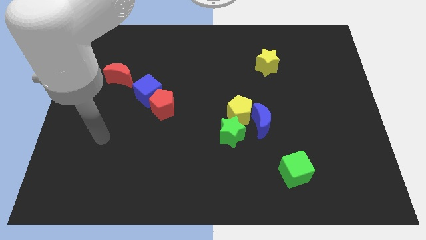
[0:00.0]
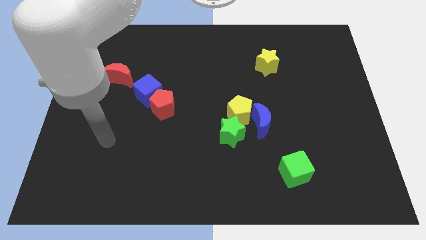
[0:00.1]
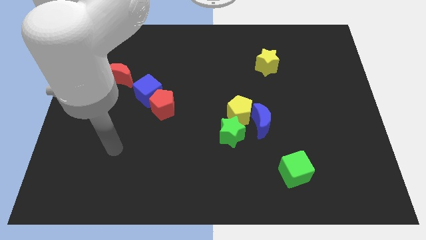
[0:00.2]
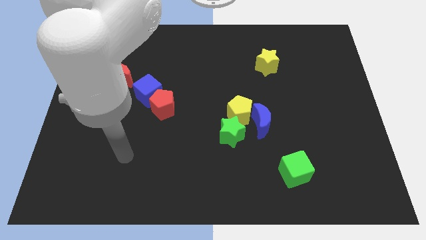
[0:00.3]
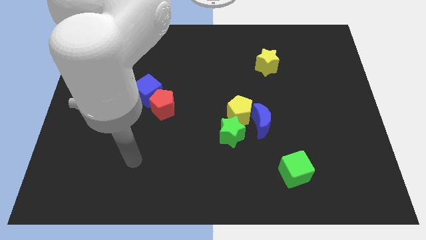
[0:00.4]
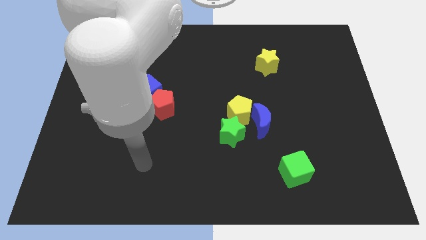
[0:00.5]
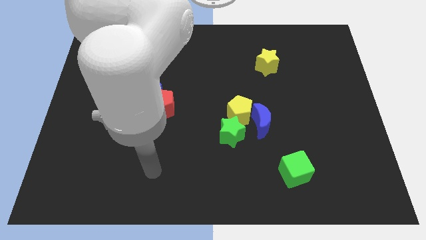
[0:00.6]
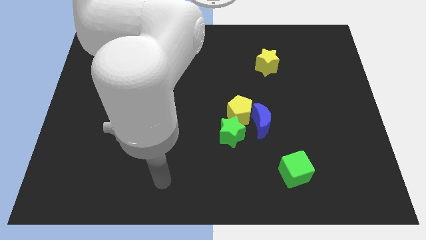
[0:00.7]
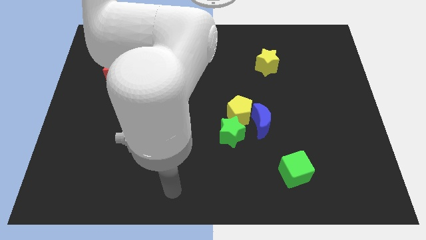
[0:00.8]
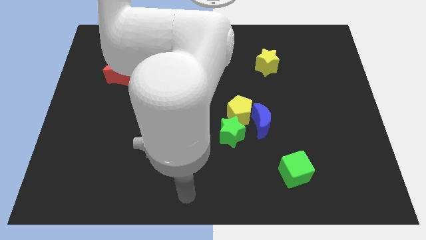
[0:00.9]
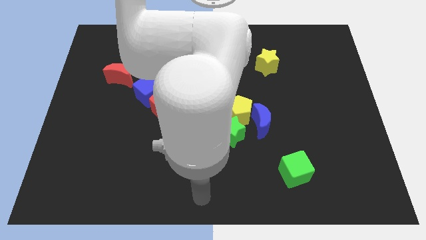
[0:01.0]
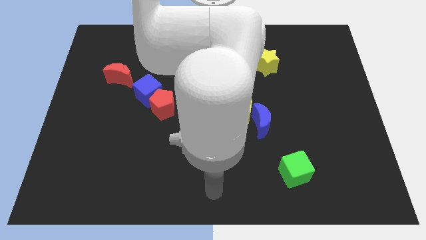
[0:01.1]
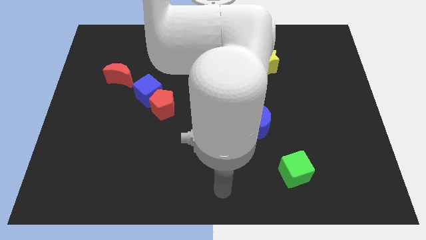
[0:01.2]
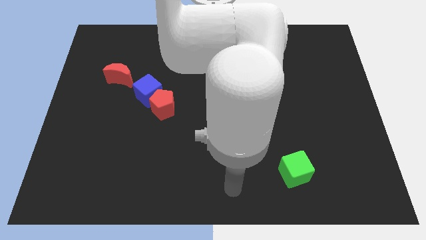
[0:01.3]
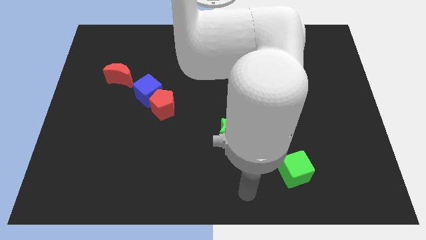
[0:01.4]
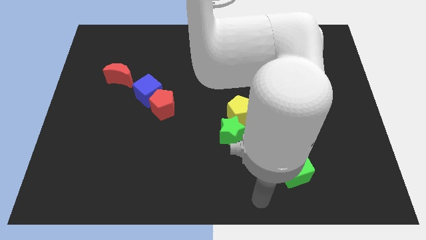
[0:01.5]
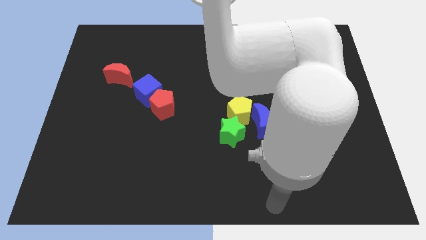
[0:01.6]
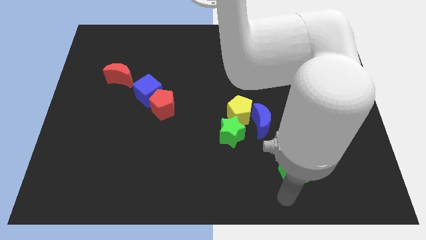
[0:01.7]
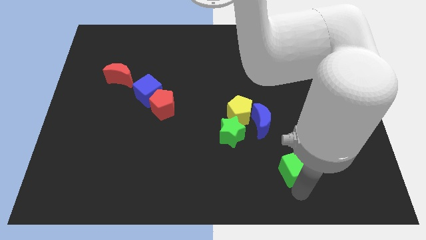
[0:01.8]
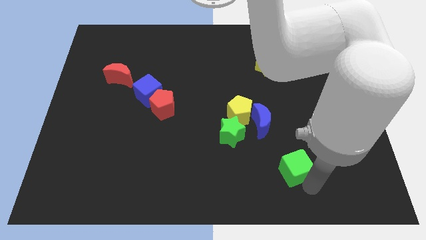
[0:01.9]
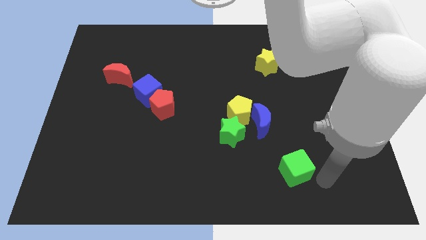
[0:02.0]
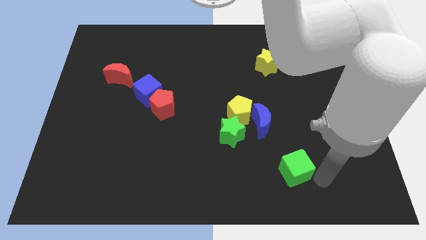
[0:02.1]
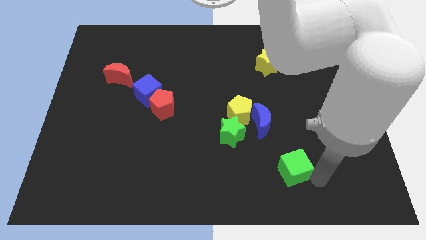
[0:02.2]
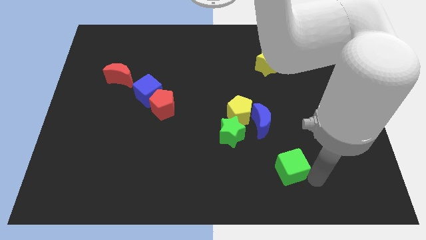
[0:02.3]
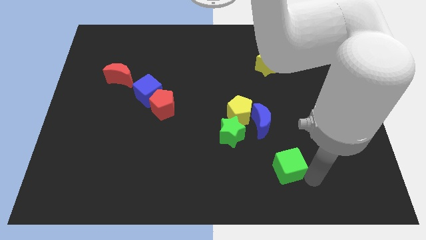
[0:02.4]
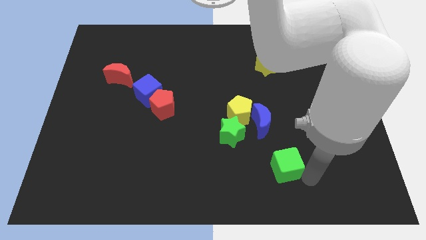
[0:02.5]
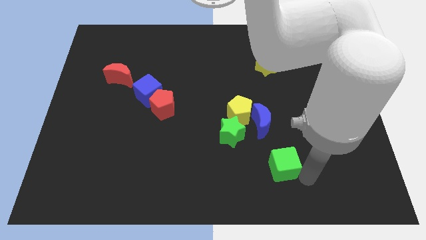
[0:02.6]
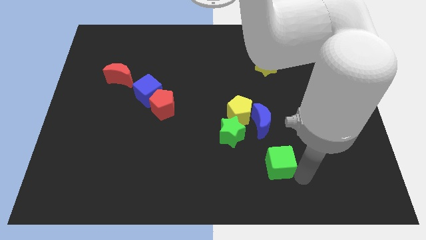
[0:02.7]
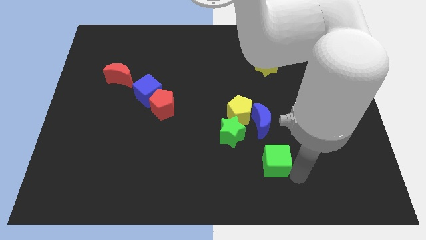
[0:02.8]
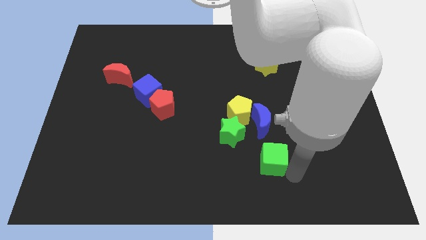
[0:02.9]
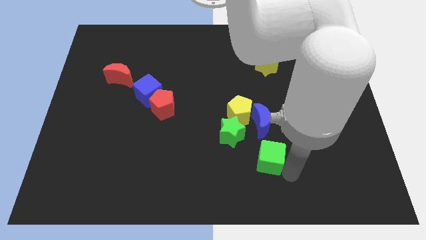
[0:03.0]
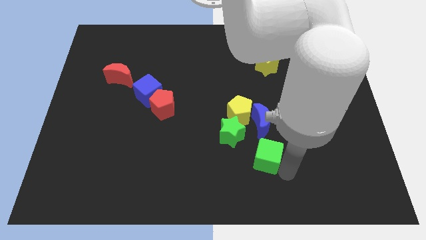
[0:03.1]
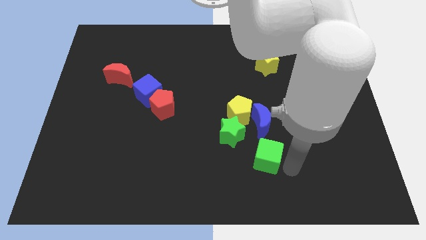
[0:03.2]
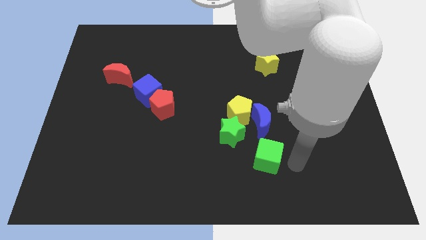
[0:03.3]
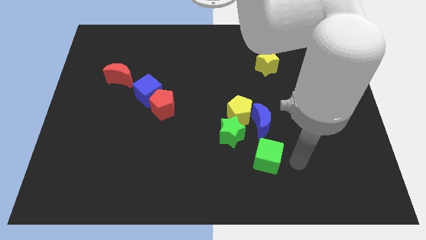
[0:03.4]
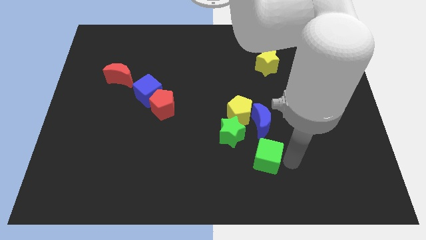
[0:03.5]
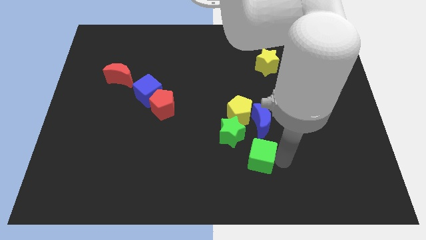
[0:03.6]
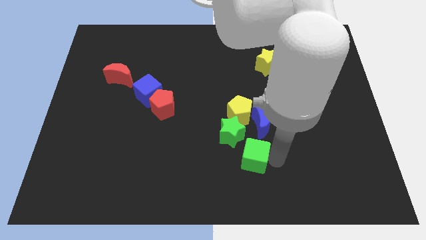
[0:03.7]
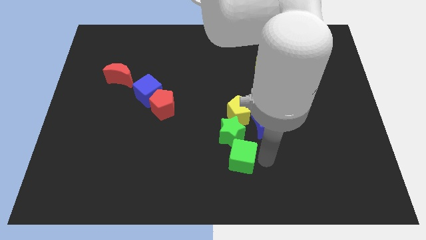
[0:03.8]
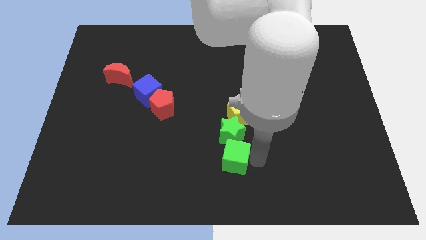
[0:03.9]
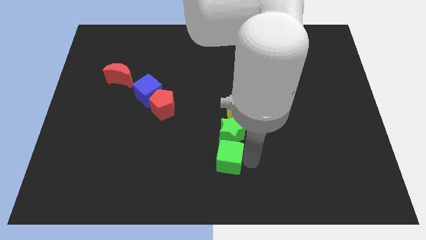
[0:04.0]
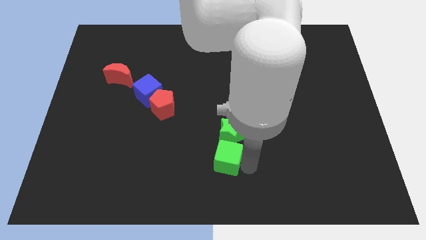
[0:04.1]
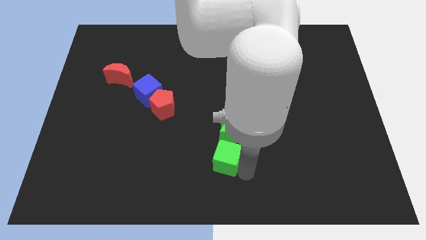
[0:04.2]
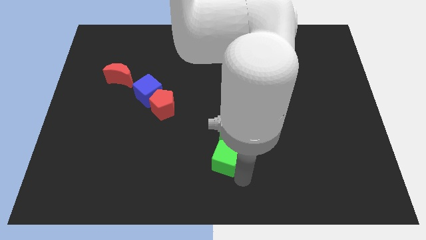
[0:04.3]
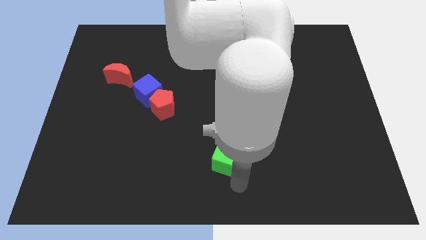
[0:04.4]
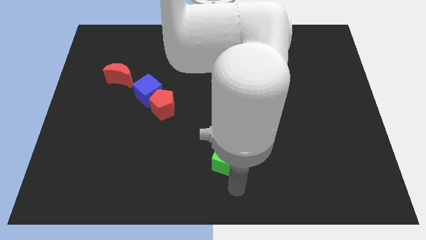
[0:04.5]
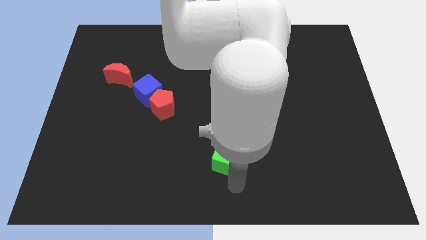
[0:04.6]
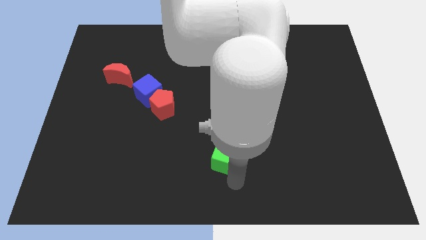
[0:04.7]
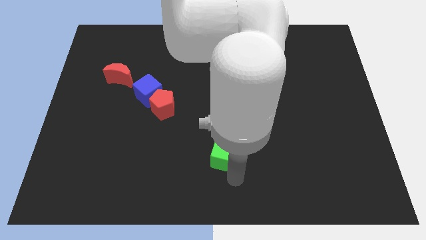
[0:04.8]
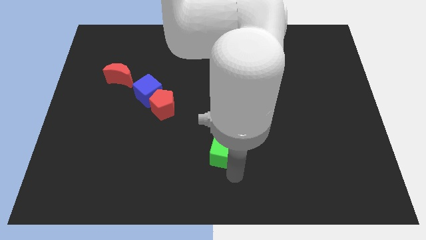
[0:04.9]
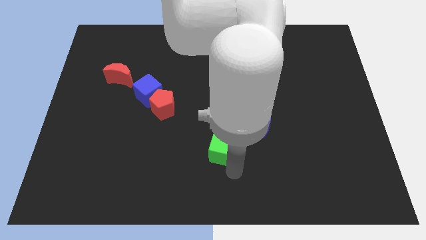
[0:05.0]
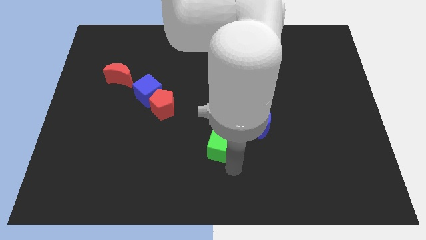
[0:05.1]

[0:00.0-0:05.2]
move the green cube to the bottom left side of the yellow pentagon

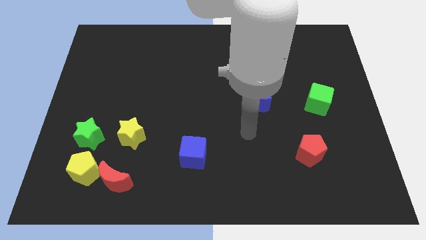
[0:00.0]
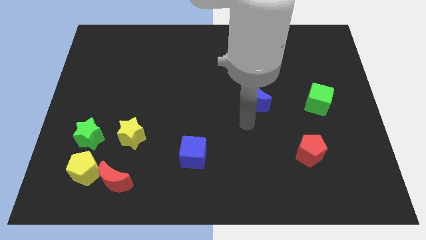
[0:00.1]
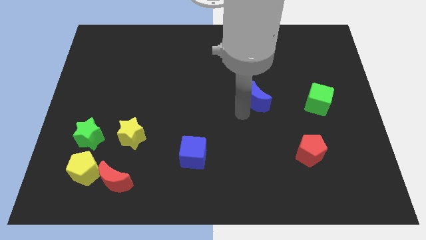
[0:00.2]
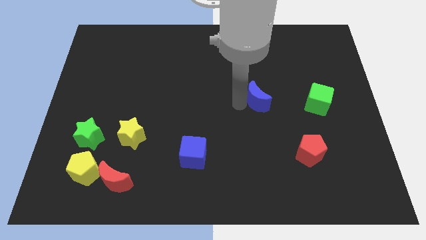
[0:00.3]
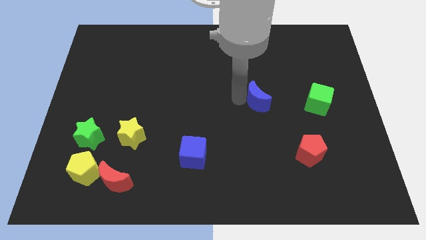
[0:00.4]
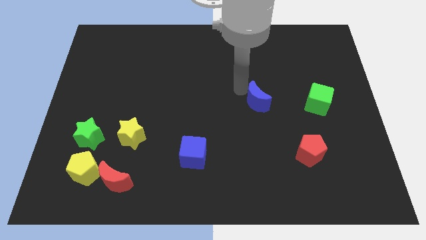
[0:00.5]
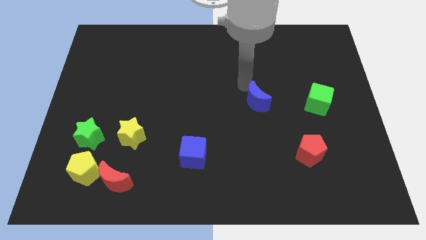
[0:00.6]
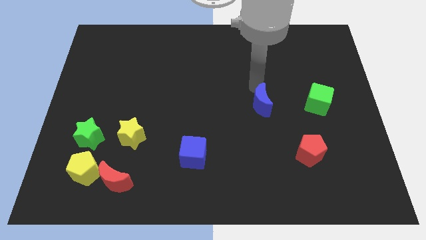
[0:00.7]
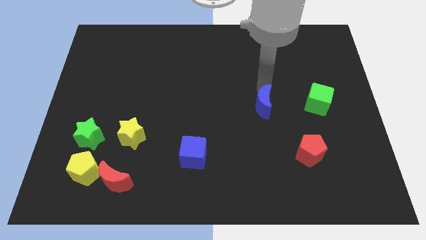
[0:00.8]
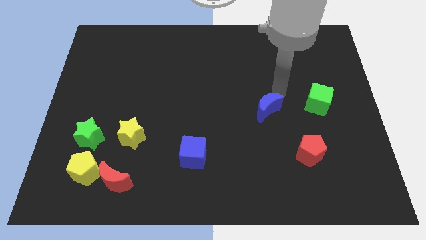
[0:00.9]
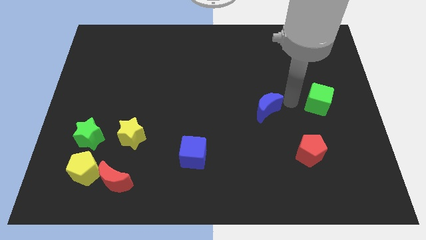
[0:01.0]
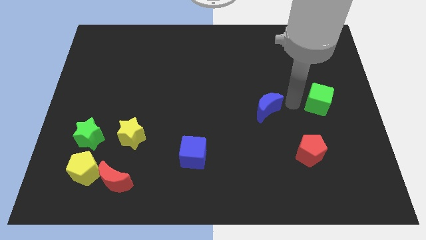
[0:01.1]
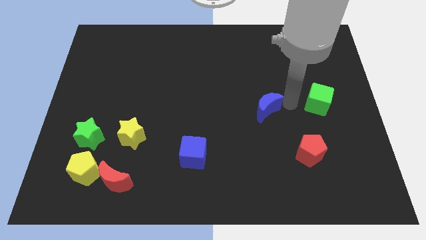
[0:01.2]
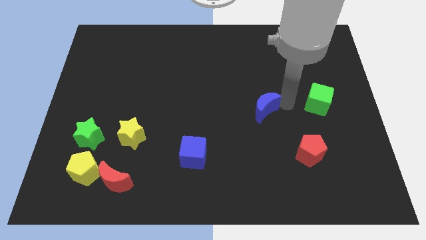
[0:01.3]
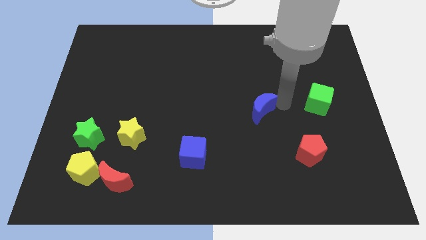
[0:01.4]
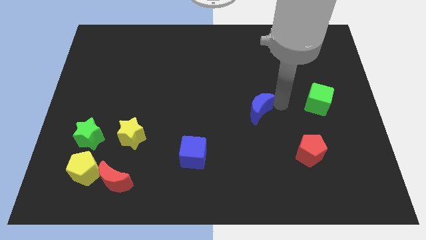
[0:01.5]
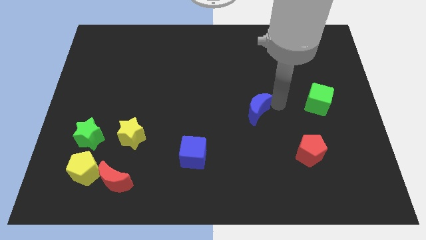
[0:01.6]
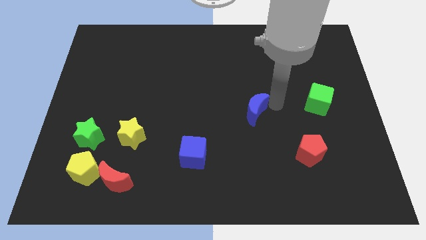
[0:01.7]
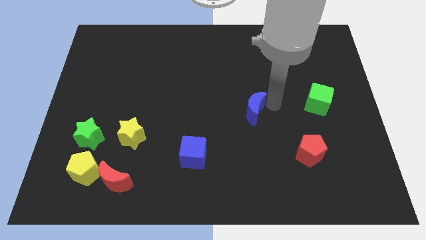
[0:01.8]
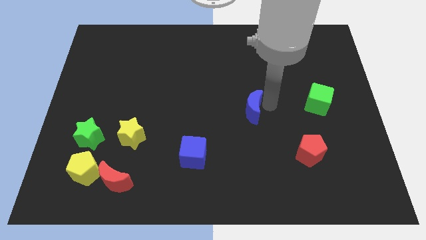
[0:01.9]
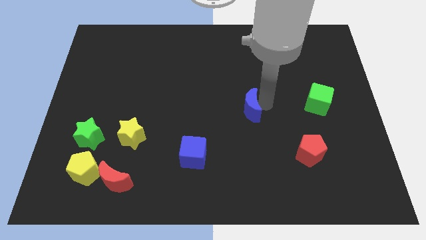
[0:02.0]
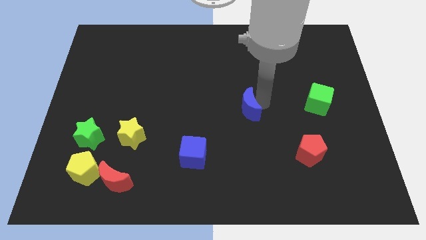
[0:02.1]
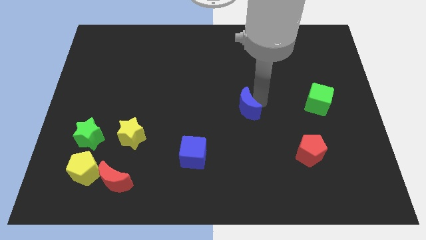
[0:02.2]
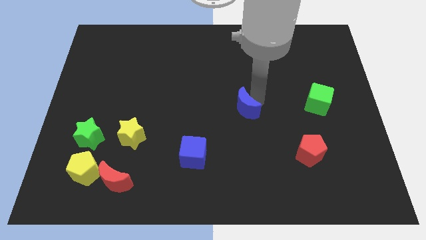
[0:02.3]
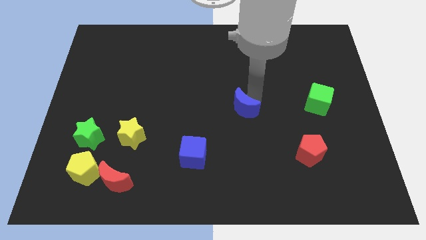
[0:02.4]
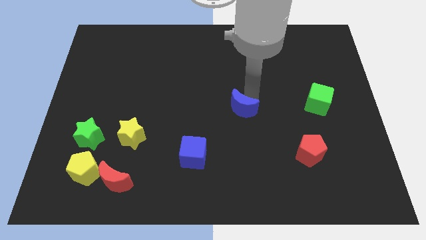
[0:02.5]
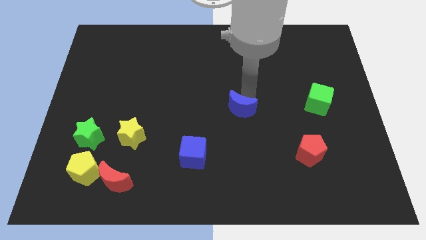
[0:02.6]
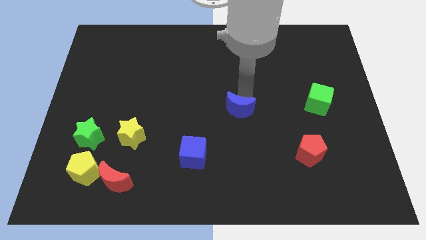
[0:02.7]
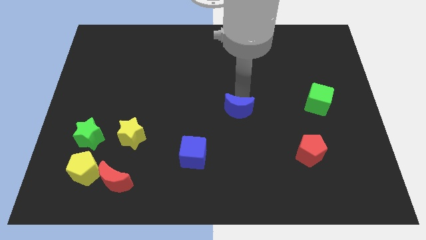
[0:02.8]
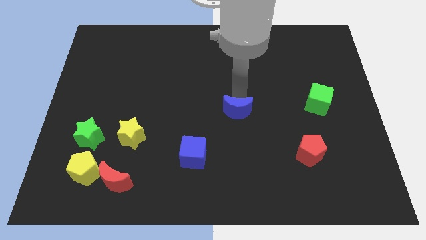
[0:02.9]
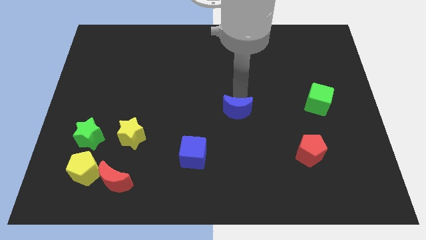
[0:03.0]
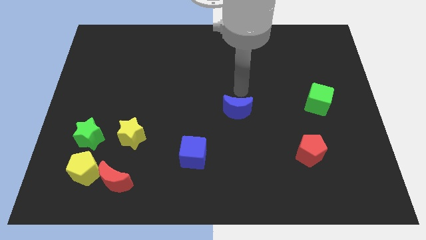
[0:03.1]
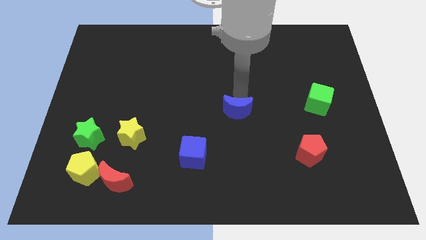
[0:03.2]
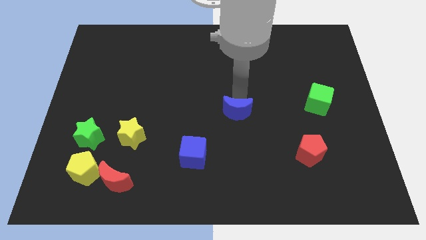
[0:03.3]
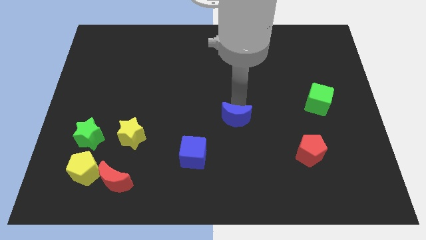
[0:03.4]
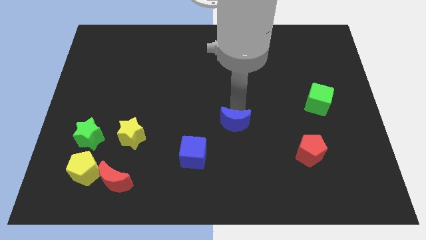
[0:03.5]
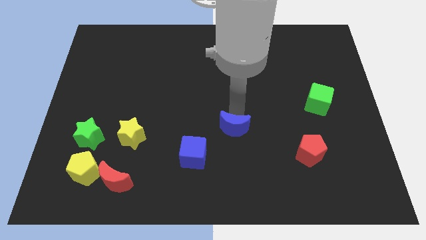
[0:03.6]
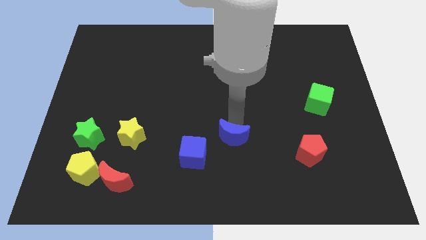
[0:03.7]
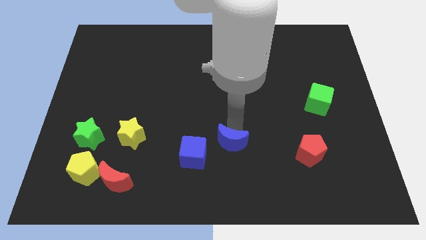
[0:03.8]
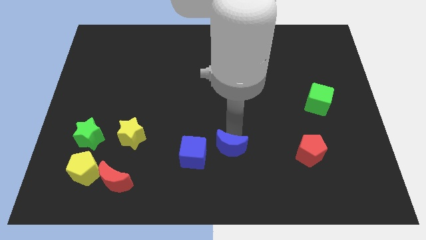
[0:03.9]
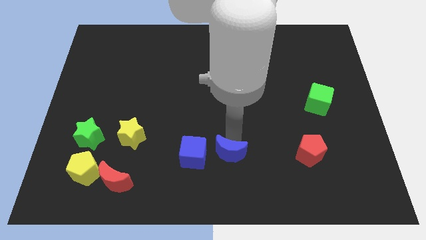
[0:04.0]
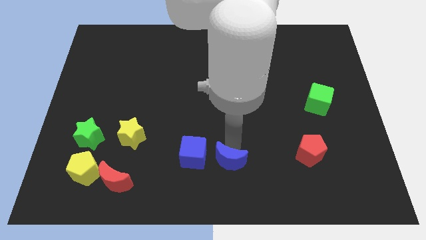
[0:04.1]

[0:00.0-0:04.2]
slide the blue moon to the bottom right side of the blue cube
